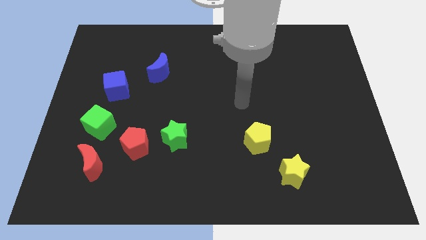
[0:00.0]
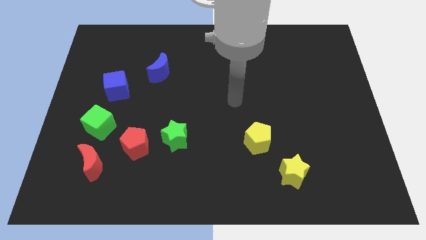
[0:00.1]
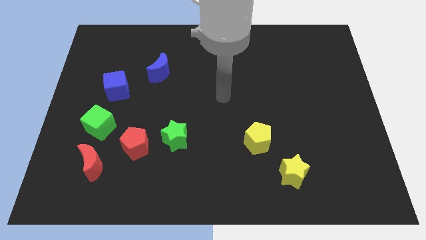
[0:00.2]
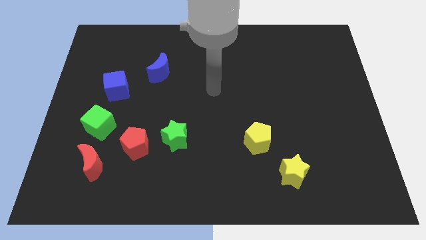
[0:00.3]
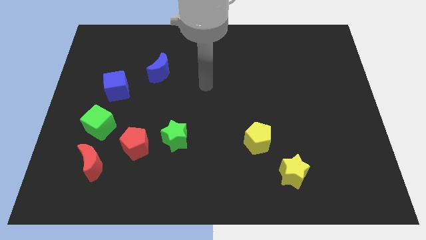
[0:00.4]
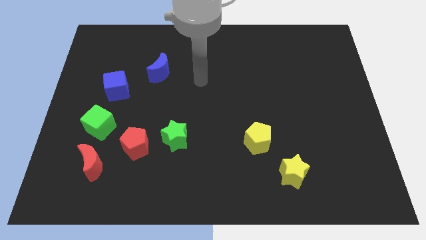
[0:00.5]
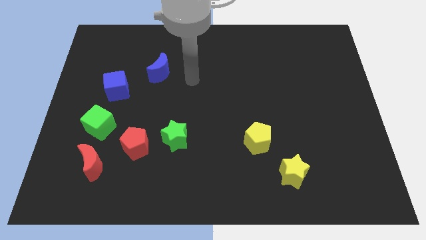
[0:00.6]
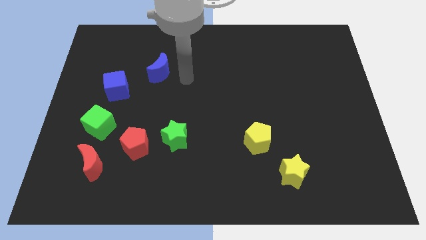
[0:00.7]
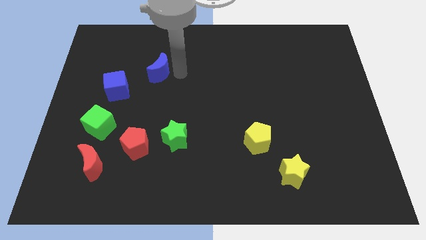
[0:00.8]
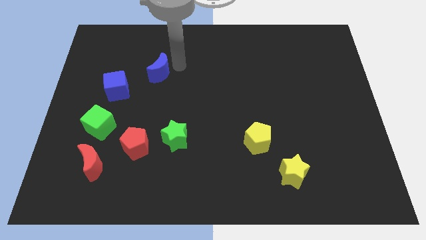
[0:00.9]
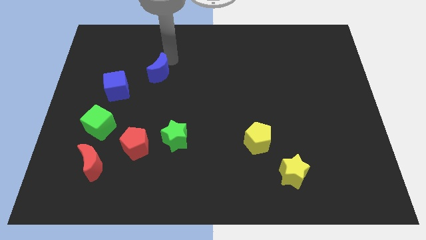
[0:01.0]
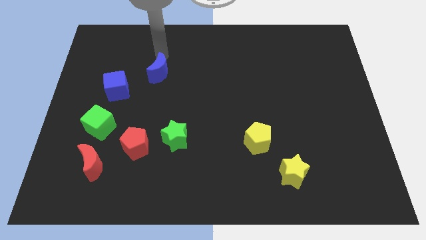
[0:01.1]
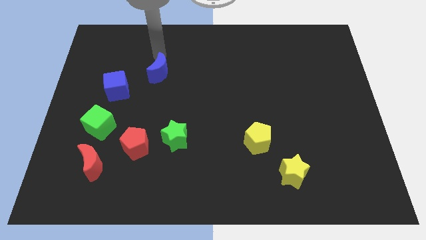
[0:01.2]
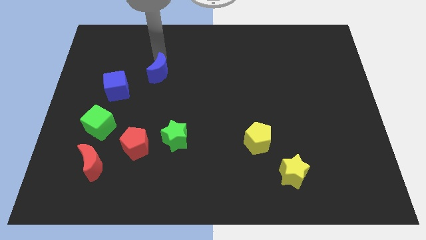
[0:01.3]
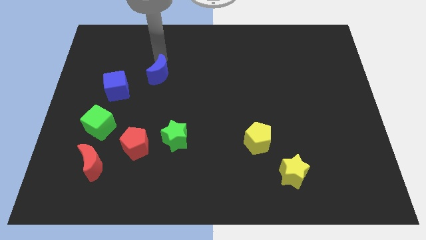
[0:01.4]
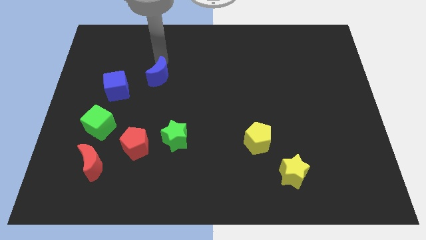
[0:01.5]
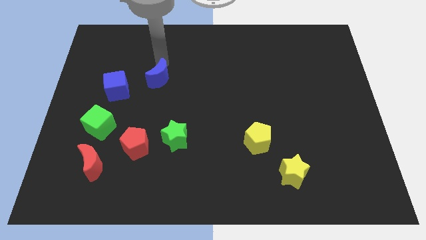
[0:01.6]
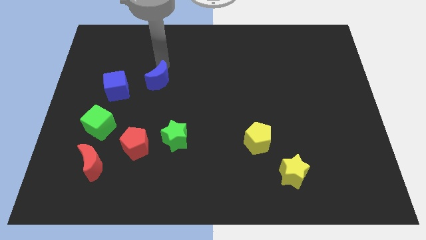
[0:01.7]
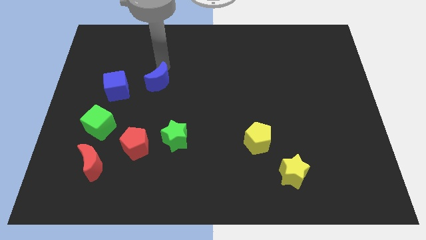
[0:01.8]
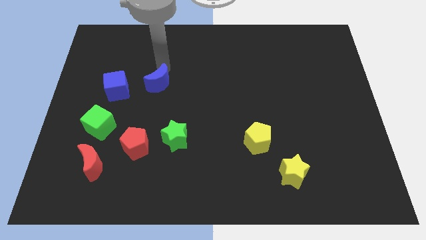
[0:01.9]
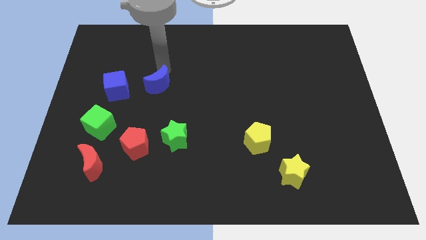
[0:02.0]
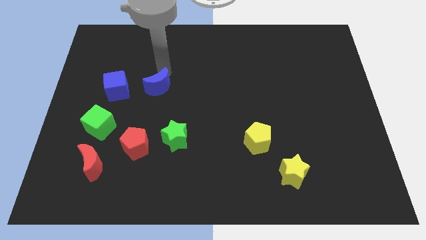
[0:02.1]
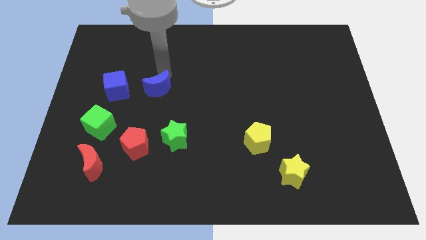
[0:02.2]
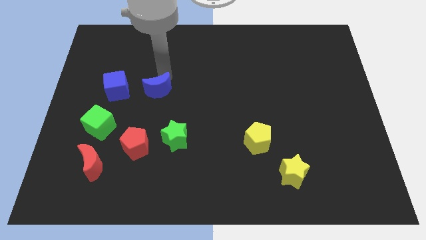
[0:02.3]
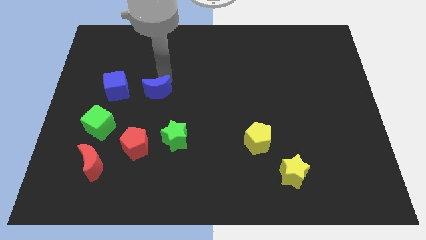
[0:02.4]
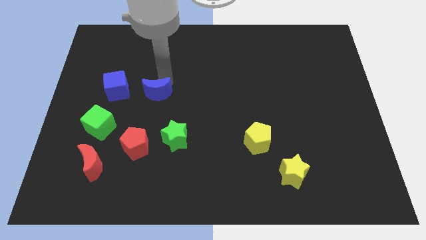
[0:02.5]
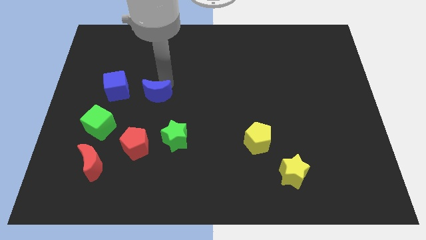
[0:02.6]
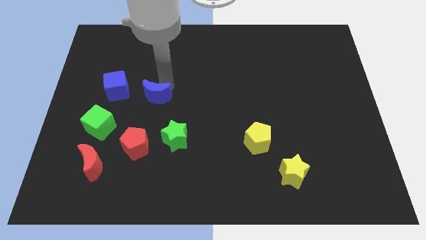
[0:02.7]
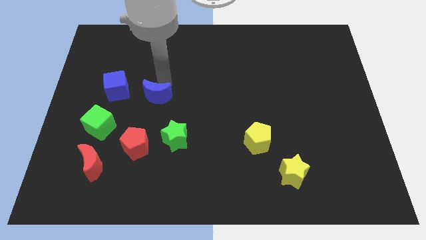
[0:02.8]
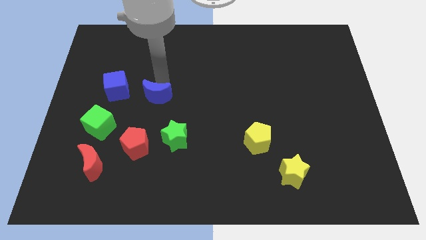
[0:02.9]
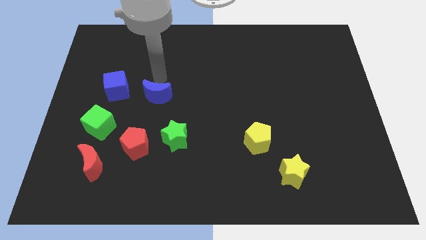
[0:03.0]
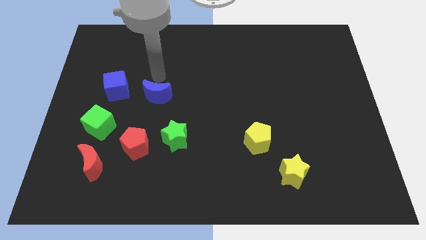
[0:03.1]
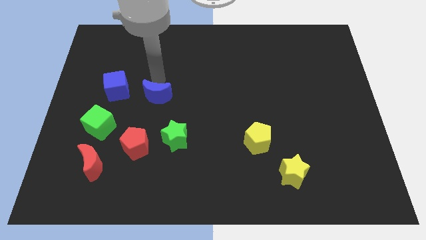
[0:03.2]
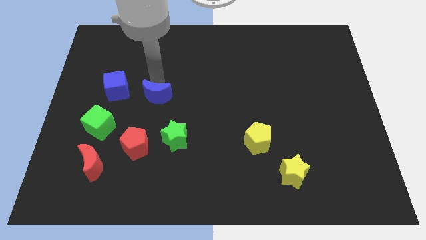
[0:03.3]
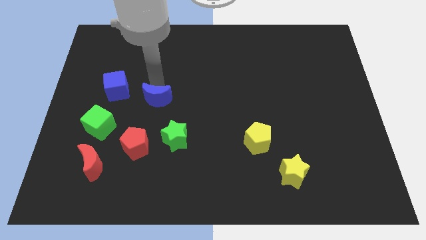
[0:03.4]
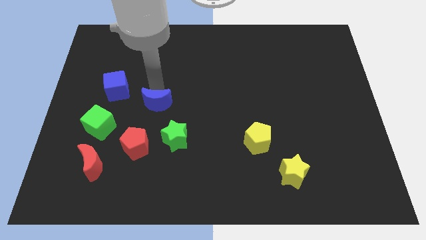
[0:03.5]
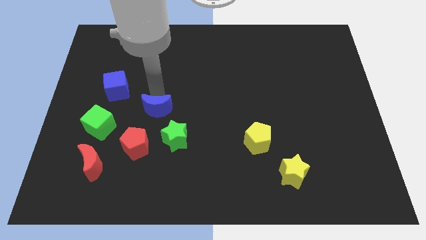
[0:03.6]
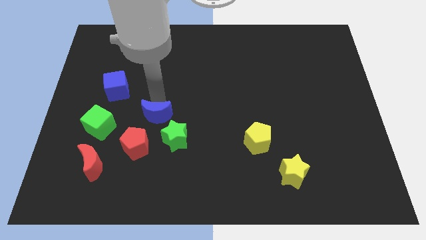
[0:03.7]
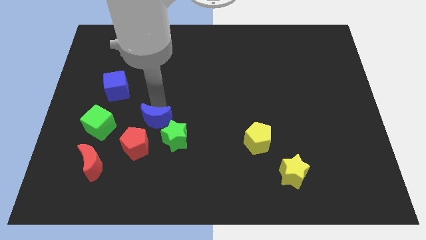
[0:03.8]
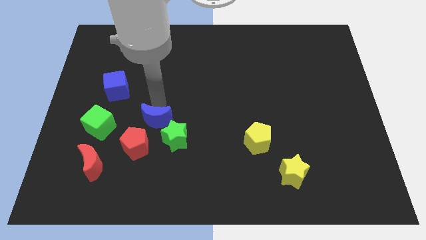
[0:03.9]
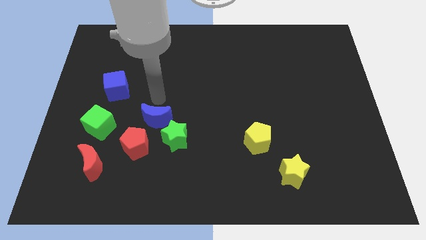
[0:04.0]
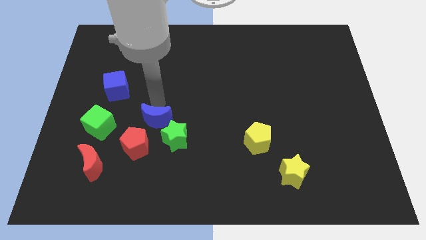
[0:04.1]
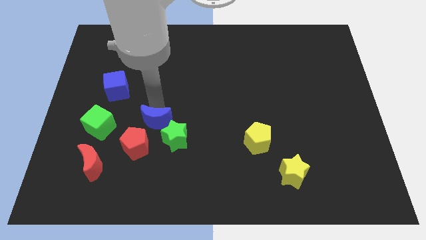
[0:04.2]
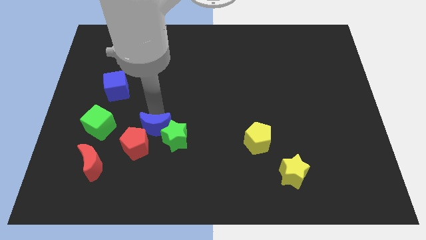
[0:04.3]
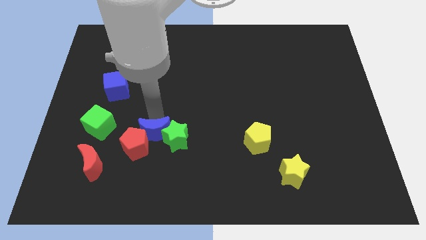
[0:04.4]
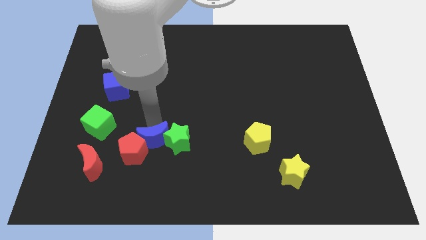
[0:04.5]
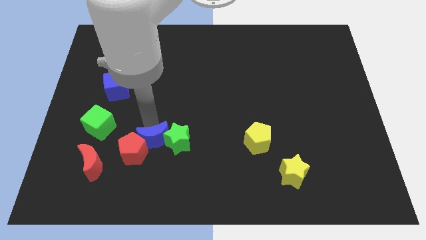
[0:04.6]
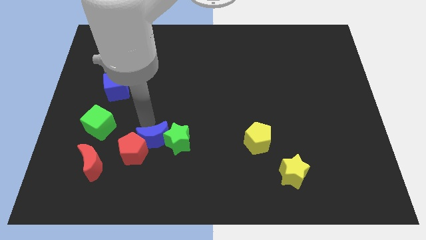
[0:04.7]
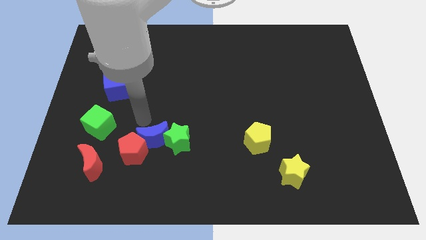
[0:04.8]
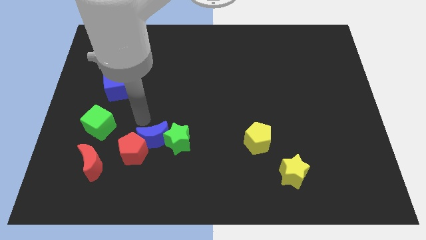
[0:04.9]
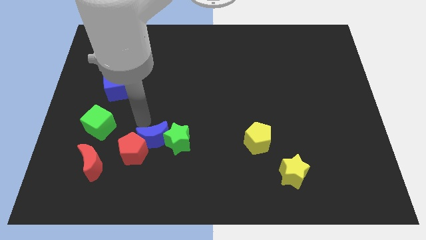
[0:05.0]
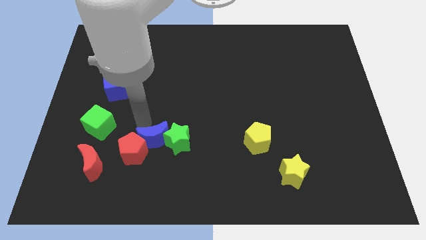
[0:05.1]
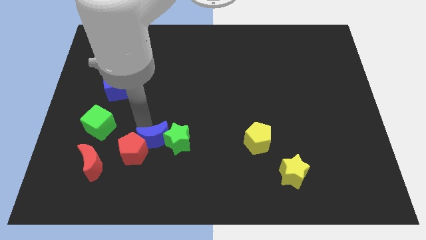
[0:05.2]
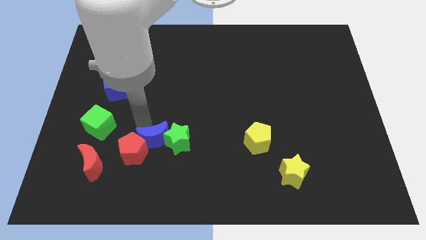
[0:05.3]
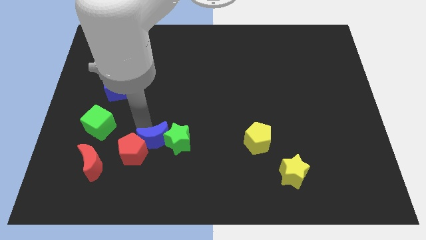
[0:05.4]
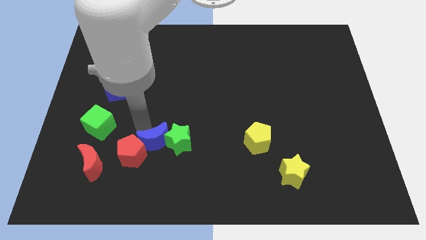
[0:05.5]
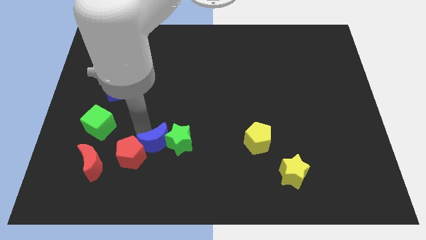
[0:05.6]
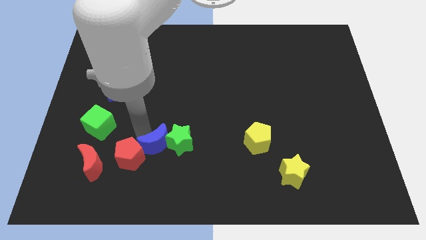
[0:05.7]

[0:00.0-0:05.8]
move the blue moon right of the red moon

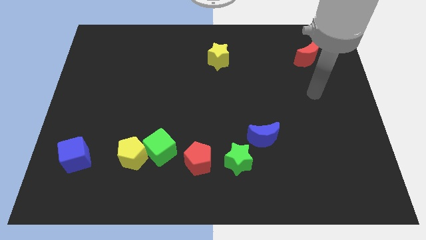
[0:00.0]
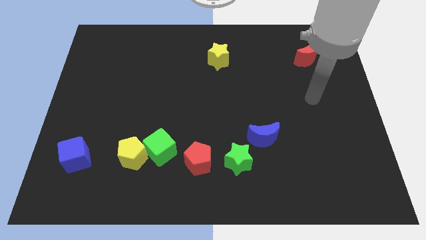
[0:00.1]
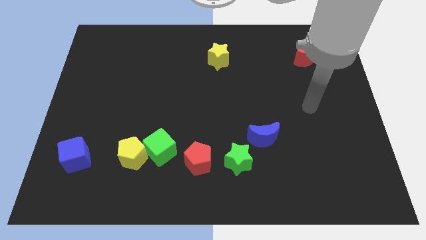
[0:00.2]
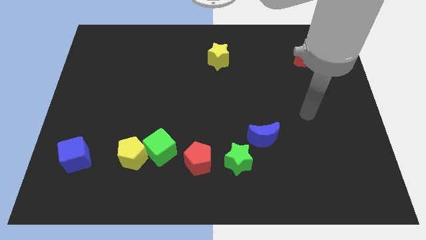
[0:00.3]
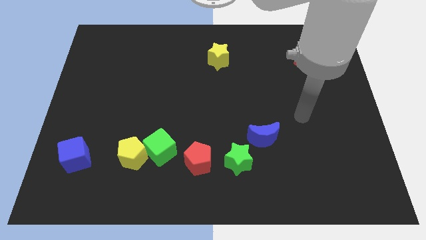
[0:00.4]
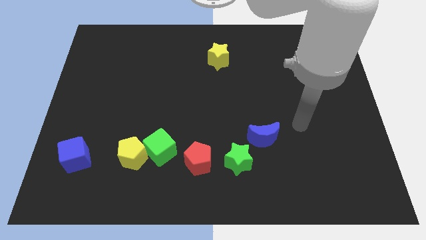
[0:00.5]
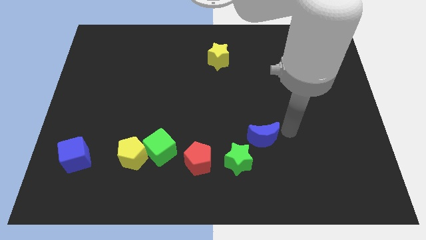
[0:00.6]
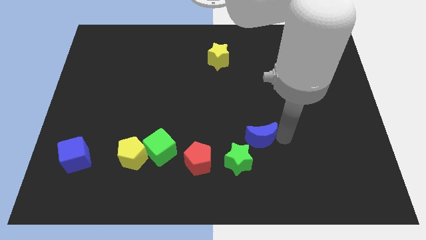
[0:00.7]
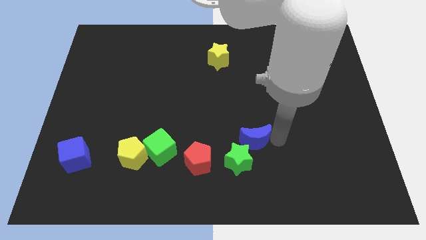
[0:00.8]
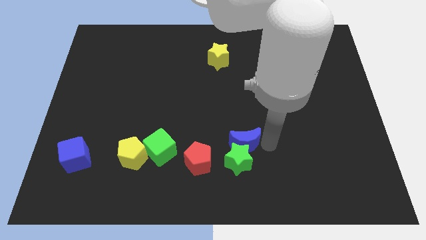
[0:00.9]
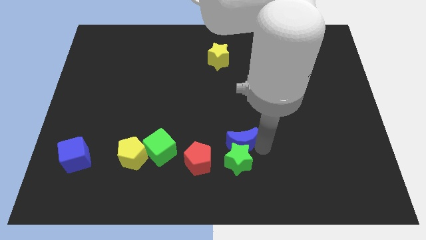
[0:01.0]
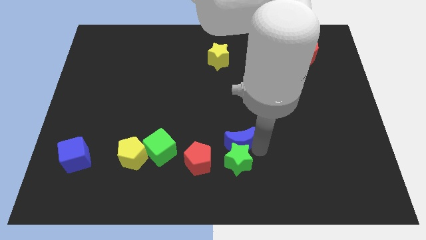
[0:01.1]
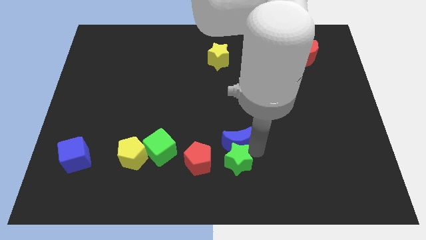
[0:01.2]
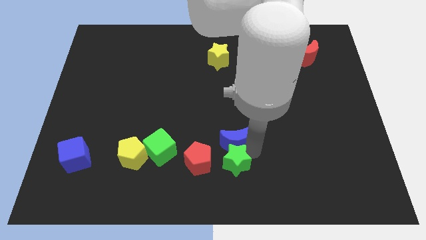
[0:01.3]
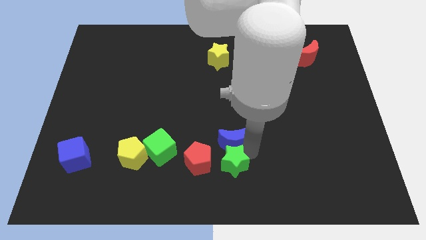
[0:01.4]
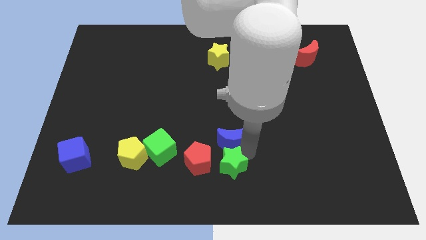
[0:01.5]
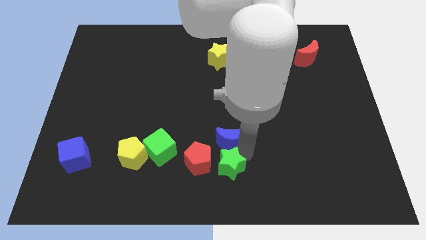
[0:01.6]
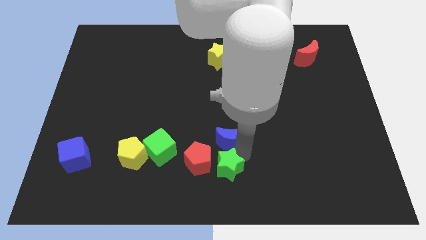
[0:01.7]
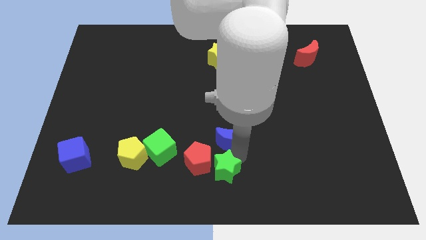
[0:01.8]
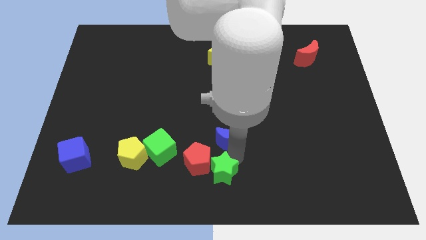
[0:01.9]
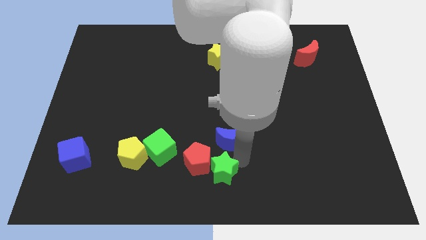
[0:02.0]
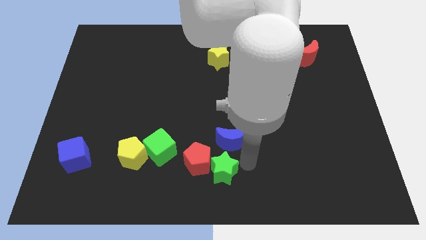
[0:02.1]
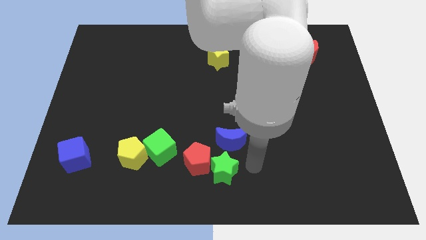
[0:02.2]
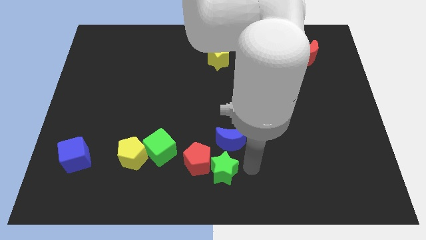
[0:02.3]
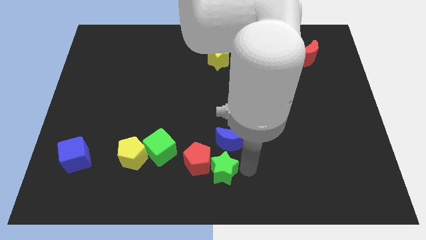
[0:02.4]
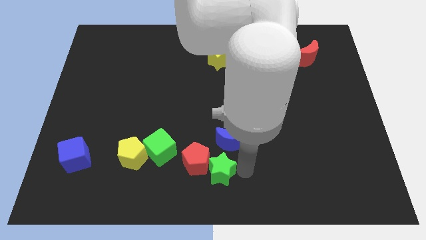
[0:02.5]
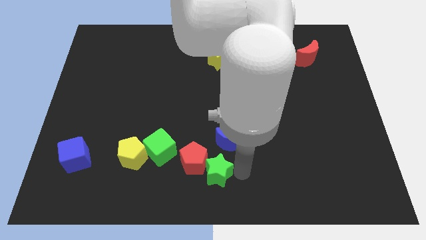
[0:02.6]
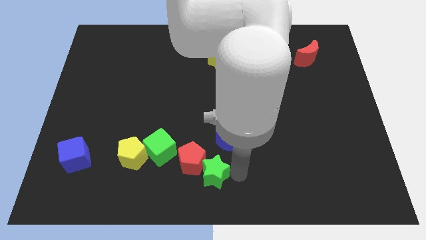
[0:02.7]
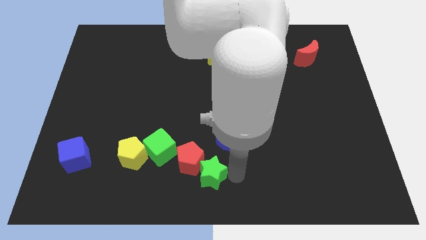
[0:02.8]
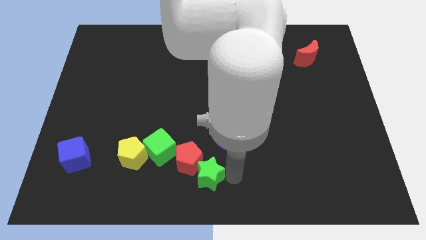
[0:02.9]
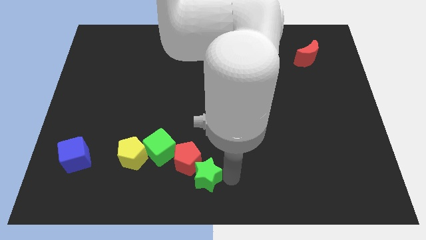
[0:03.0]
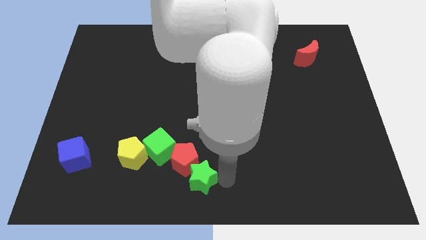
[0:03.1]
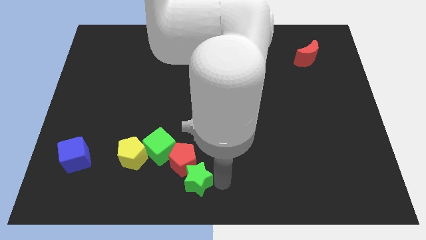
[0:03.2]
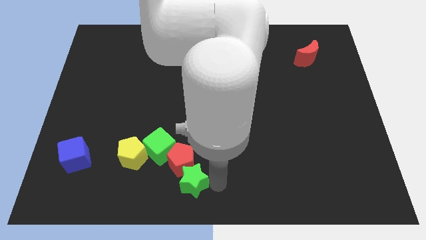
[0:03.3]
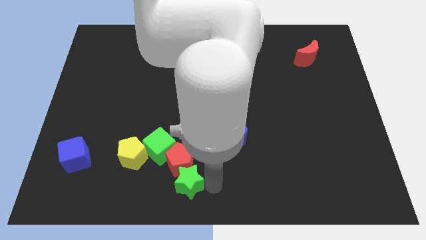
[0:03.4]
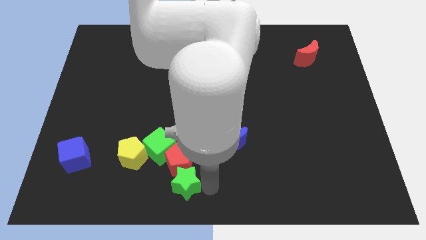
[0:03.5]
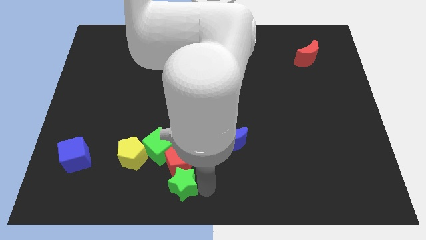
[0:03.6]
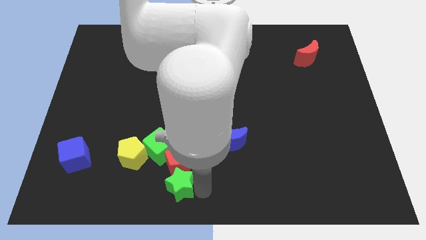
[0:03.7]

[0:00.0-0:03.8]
push the green star diagonally down and to the right of the yellow pentagon
